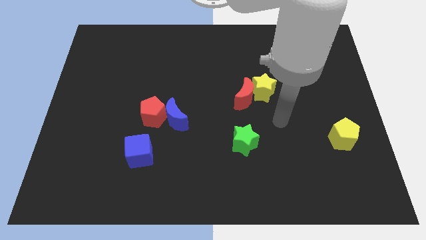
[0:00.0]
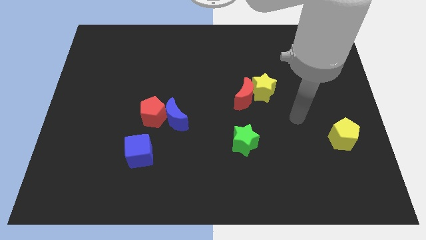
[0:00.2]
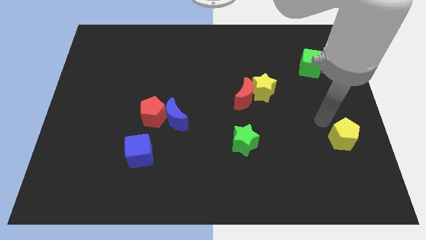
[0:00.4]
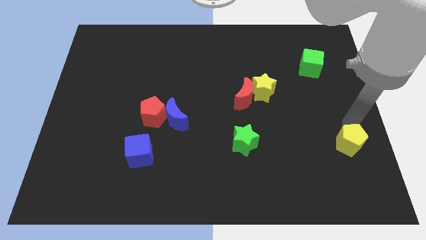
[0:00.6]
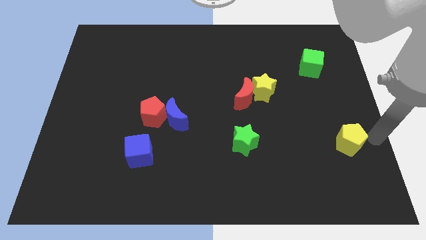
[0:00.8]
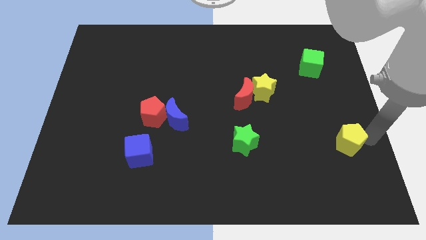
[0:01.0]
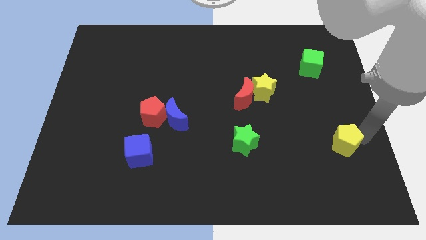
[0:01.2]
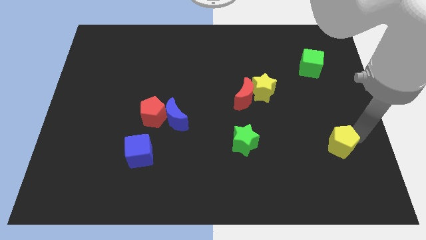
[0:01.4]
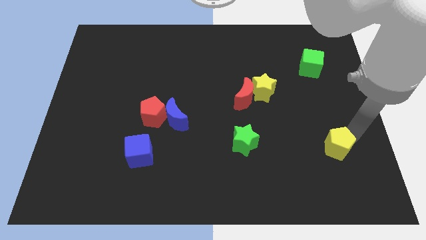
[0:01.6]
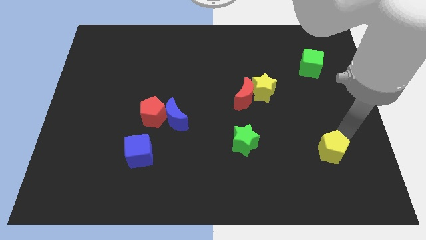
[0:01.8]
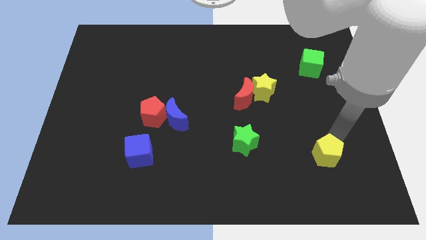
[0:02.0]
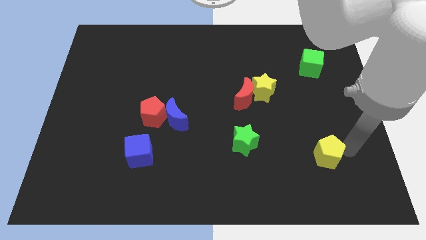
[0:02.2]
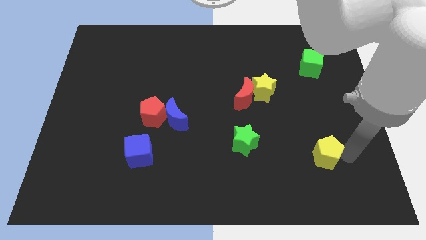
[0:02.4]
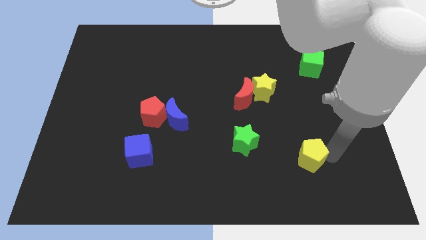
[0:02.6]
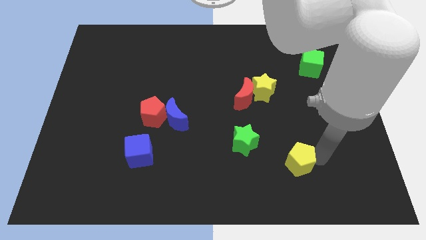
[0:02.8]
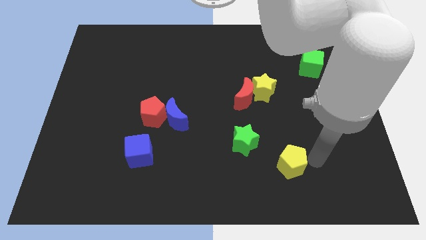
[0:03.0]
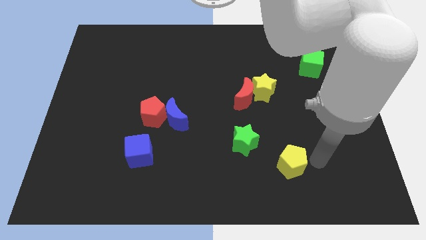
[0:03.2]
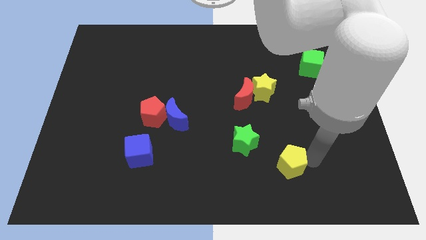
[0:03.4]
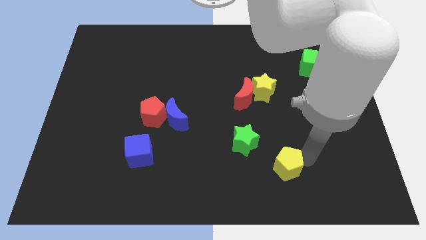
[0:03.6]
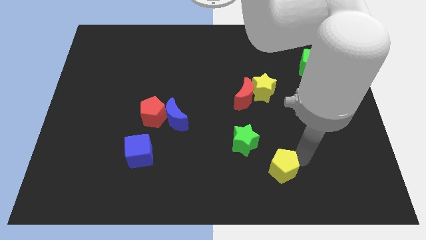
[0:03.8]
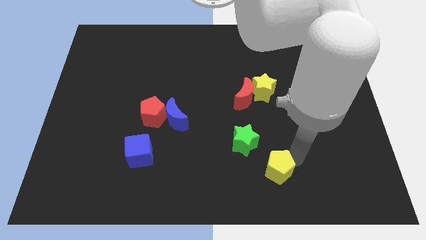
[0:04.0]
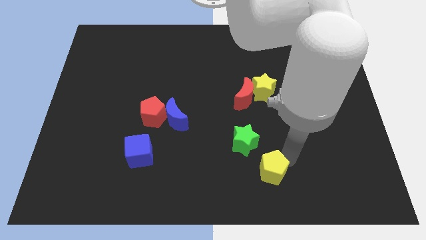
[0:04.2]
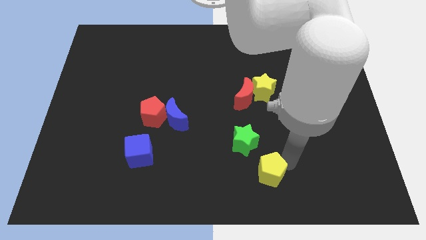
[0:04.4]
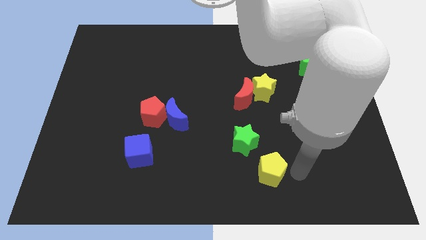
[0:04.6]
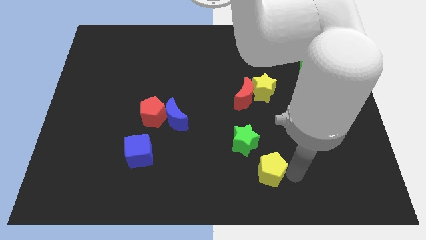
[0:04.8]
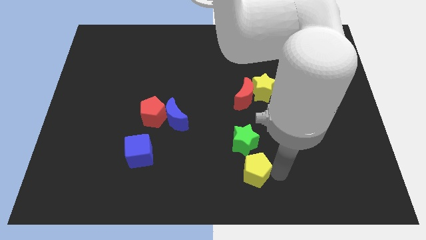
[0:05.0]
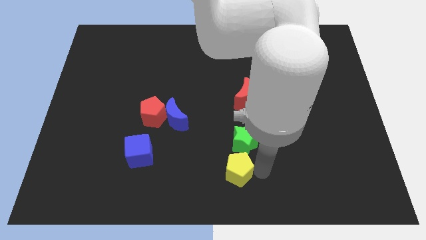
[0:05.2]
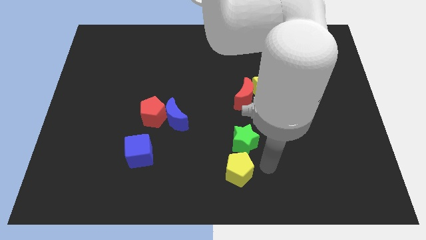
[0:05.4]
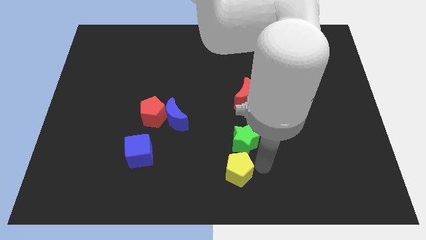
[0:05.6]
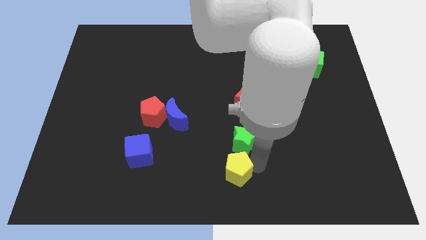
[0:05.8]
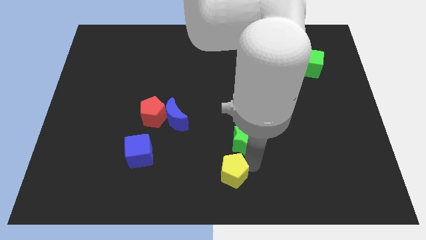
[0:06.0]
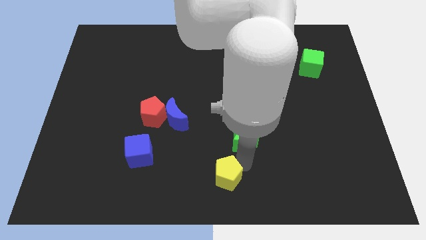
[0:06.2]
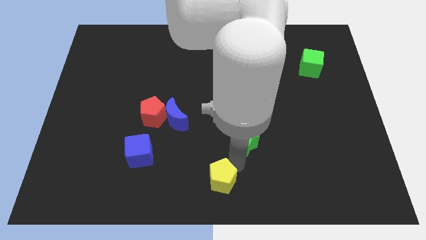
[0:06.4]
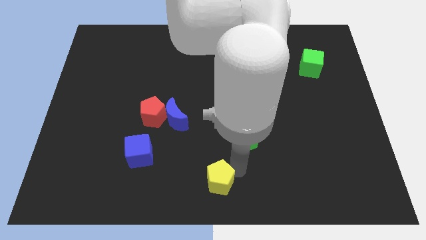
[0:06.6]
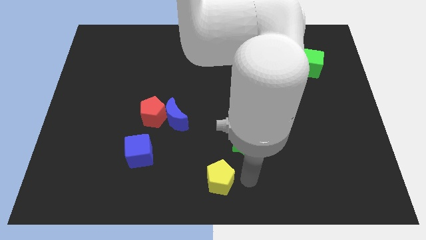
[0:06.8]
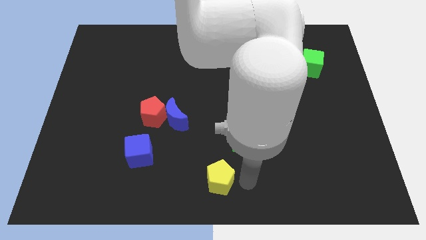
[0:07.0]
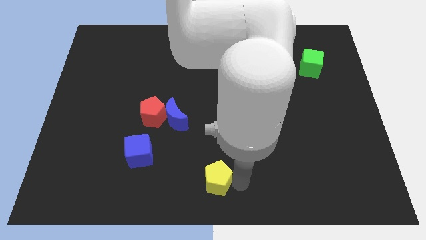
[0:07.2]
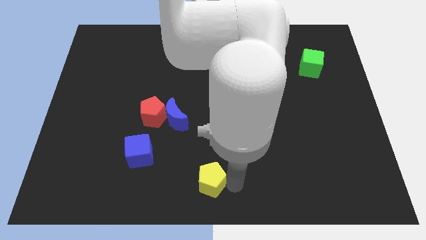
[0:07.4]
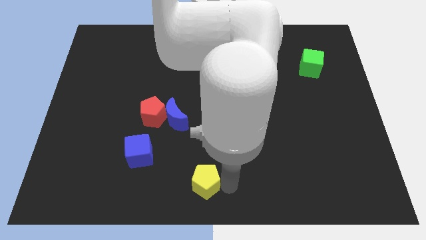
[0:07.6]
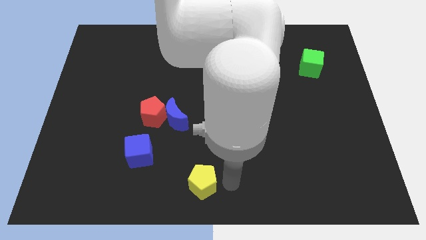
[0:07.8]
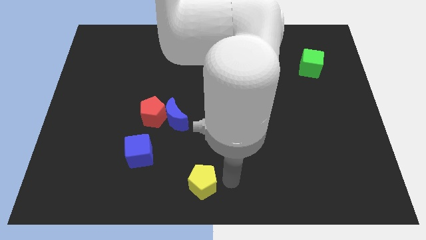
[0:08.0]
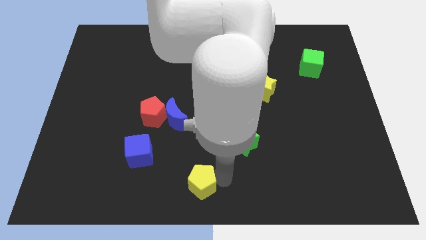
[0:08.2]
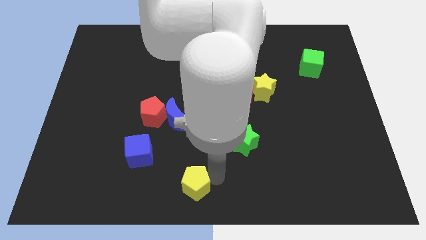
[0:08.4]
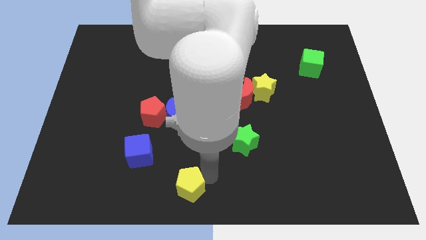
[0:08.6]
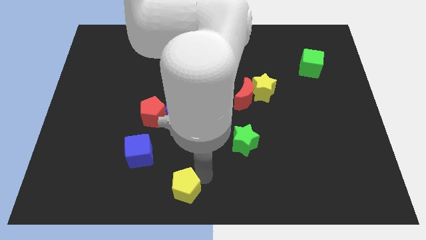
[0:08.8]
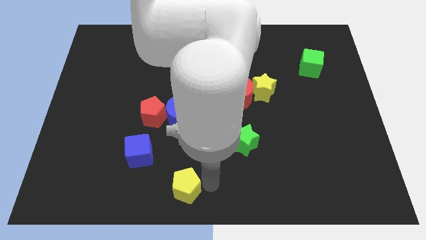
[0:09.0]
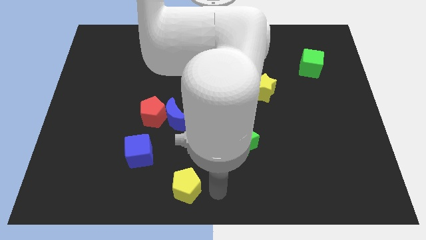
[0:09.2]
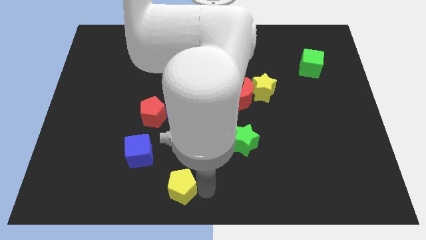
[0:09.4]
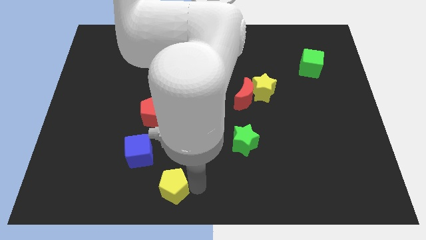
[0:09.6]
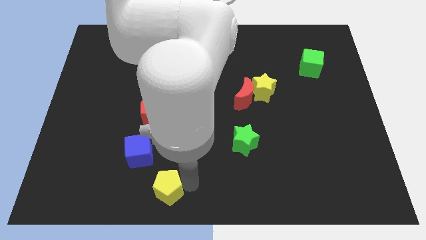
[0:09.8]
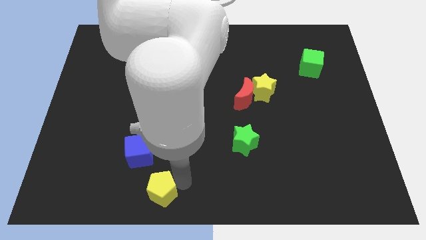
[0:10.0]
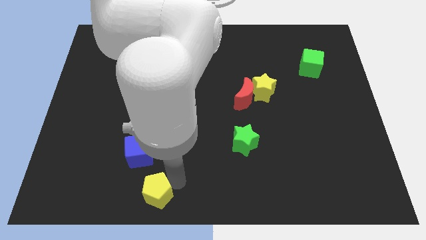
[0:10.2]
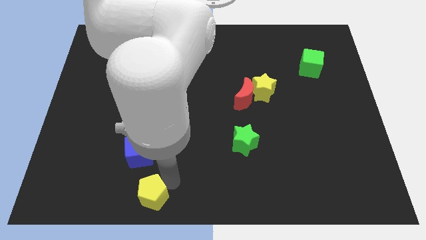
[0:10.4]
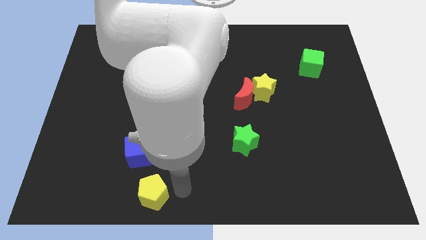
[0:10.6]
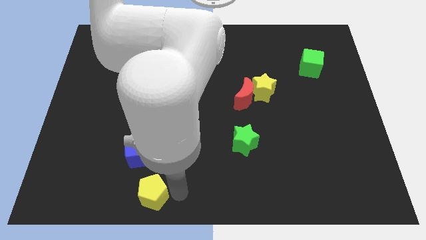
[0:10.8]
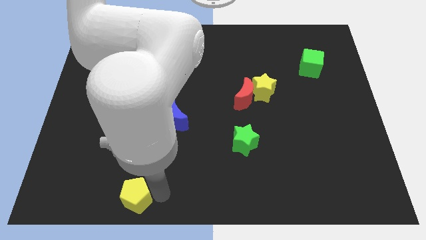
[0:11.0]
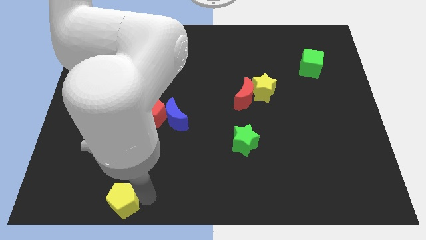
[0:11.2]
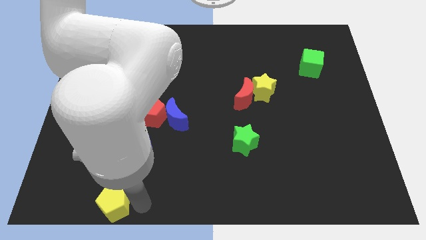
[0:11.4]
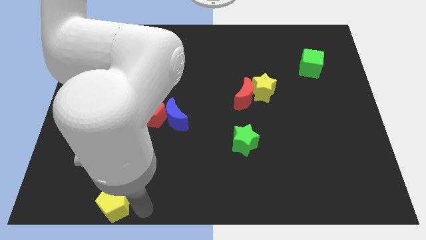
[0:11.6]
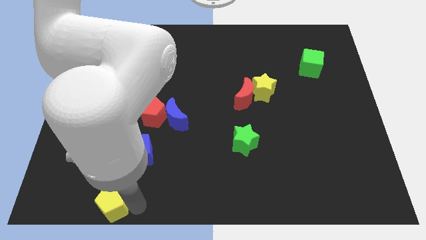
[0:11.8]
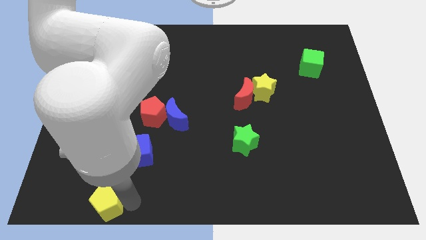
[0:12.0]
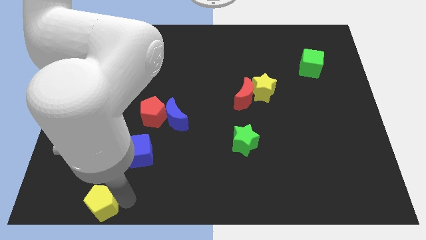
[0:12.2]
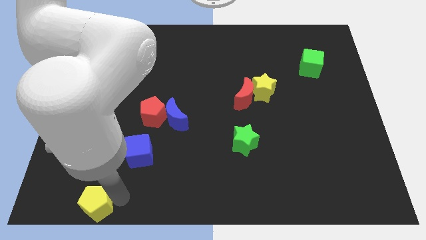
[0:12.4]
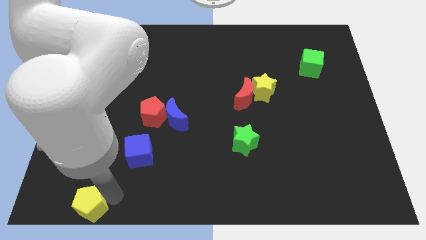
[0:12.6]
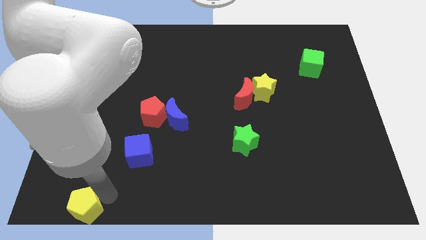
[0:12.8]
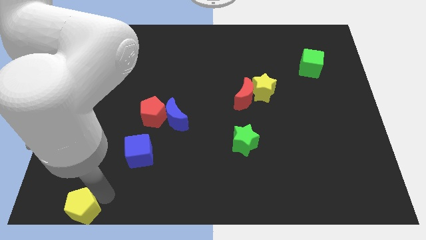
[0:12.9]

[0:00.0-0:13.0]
move the yellow pentagon to the bottom left corner

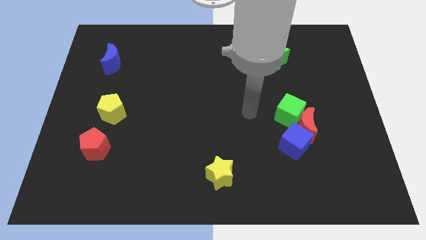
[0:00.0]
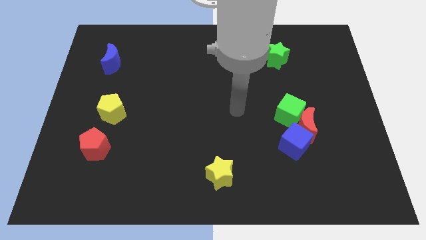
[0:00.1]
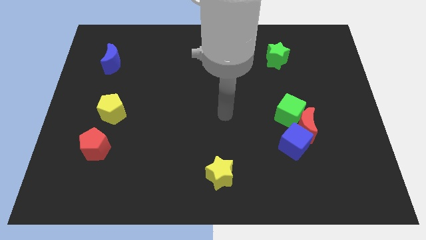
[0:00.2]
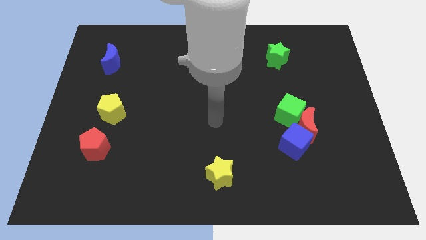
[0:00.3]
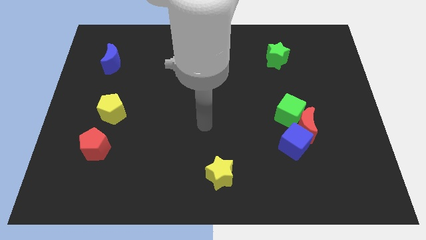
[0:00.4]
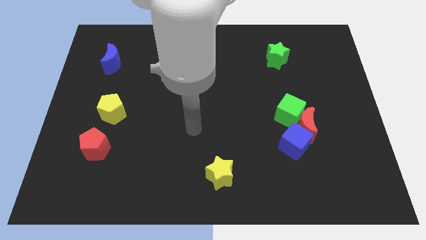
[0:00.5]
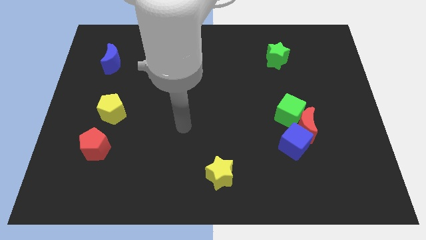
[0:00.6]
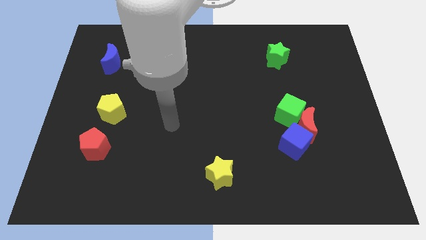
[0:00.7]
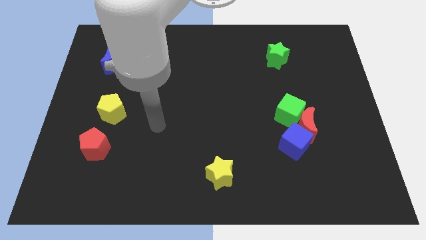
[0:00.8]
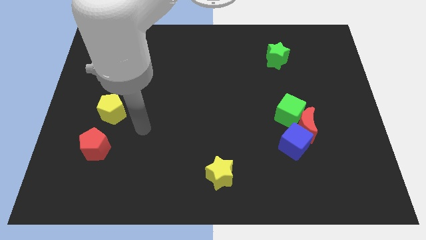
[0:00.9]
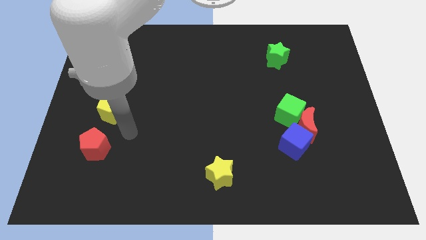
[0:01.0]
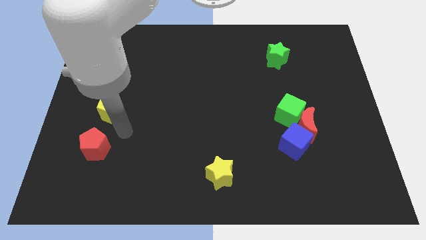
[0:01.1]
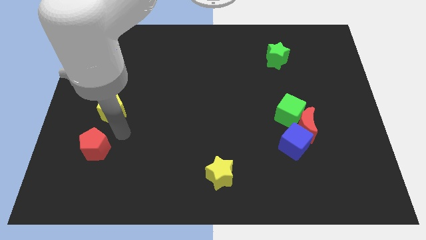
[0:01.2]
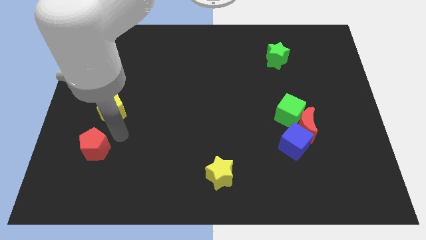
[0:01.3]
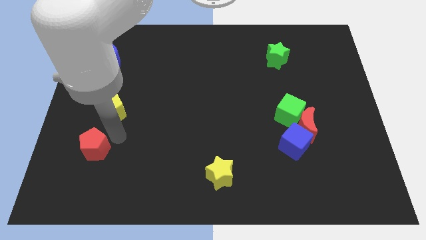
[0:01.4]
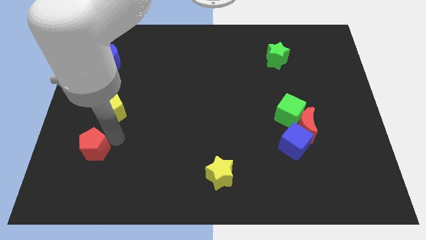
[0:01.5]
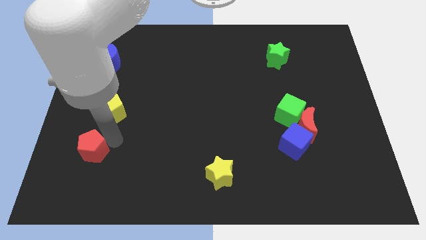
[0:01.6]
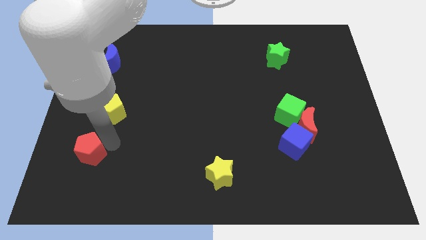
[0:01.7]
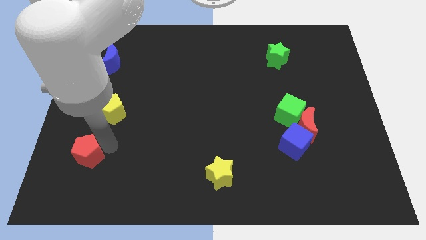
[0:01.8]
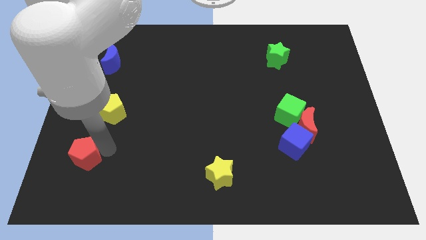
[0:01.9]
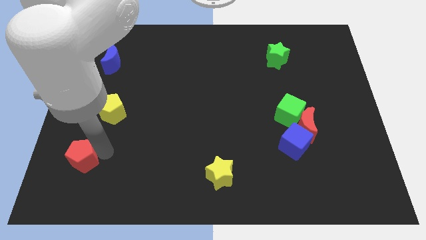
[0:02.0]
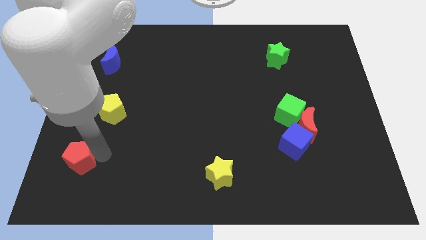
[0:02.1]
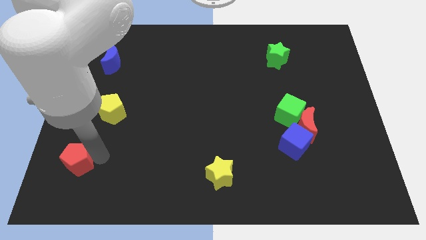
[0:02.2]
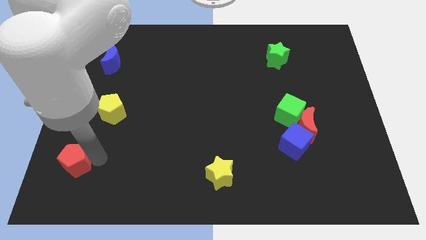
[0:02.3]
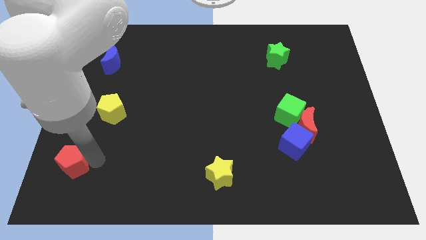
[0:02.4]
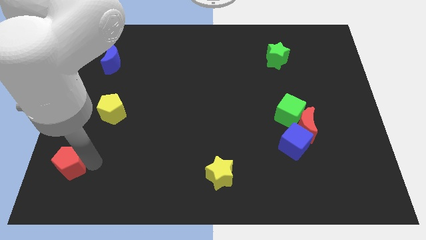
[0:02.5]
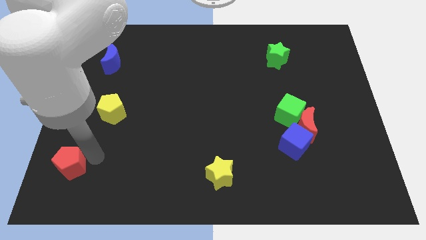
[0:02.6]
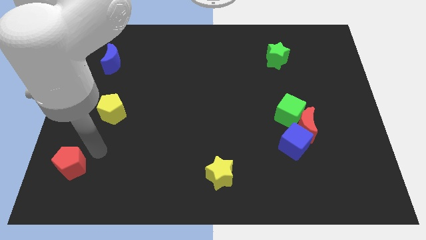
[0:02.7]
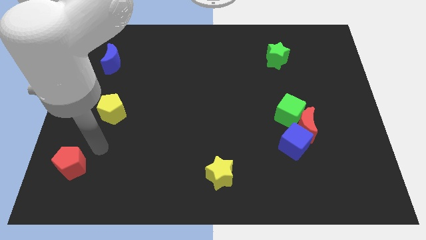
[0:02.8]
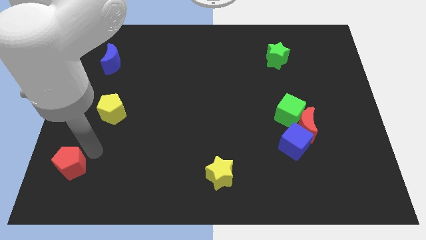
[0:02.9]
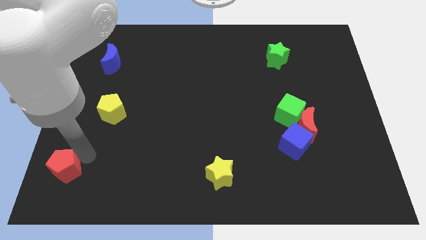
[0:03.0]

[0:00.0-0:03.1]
slide the red pentagon to the bottom left corner
